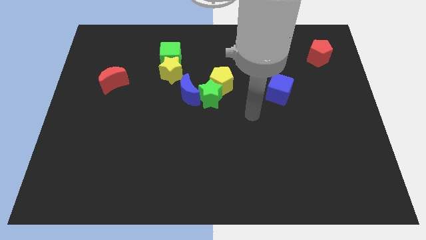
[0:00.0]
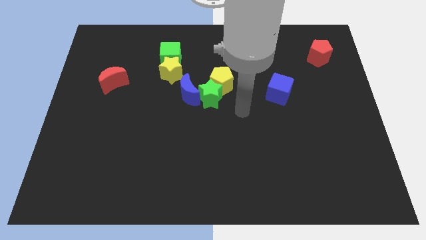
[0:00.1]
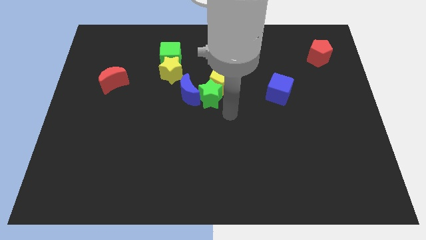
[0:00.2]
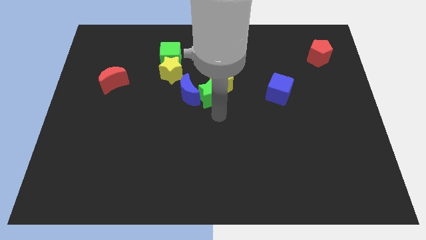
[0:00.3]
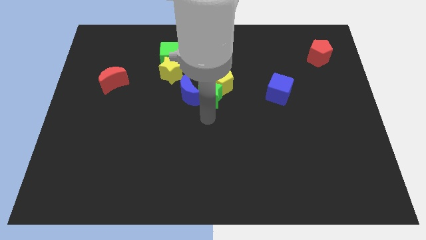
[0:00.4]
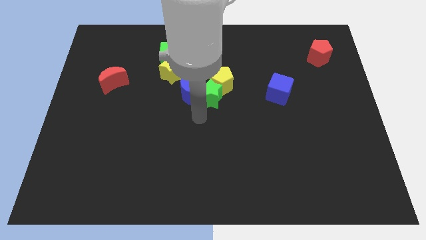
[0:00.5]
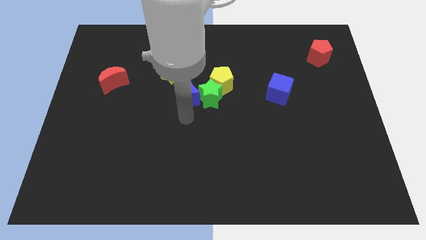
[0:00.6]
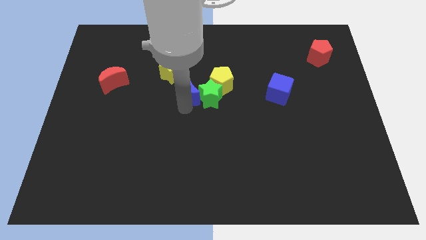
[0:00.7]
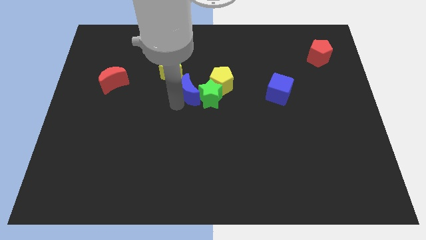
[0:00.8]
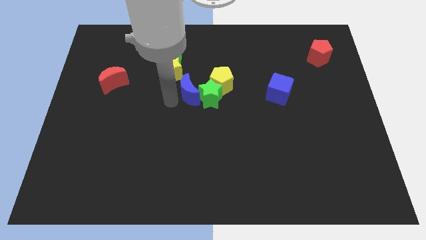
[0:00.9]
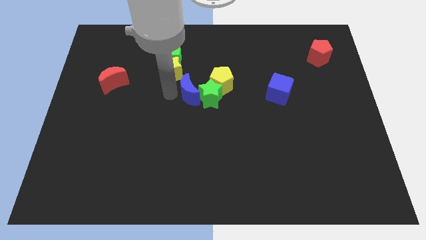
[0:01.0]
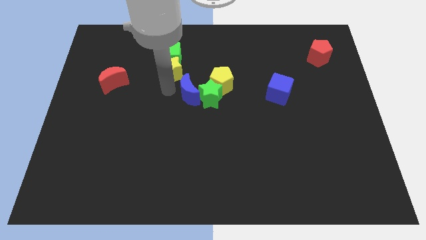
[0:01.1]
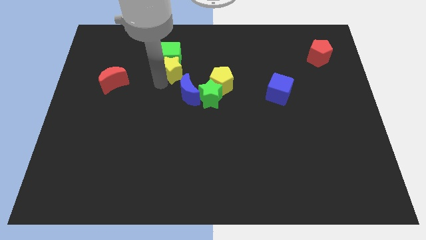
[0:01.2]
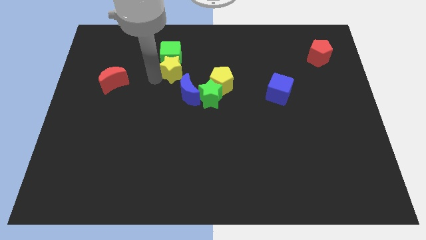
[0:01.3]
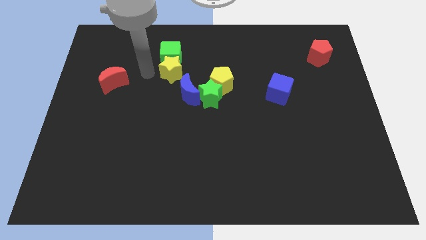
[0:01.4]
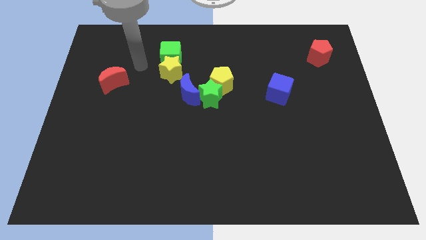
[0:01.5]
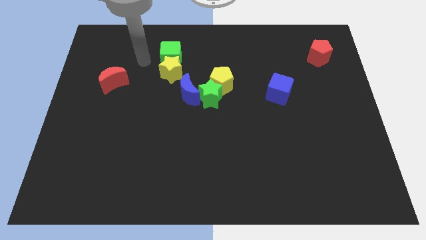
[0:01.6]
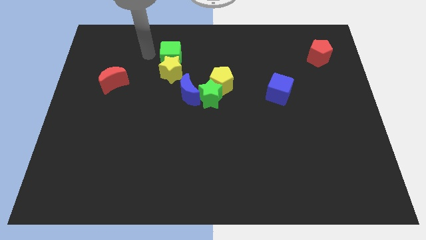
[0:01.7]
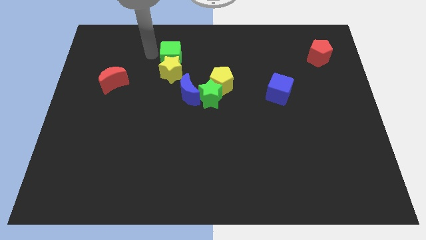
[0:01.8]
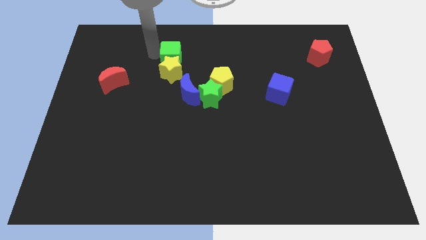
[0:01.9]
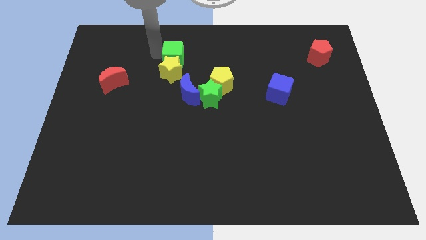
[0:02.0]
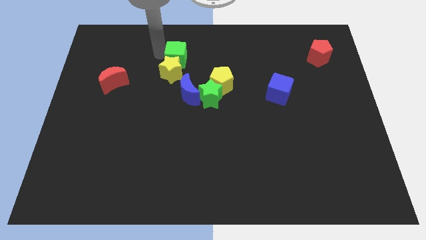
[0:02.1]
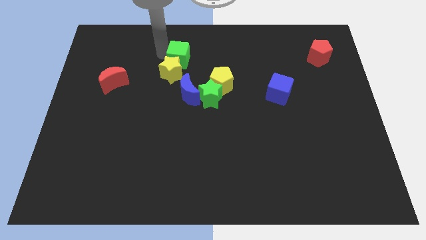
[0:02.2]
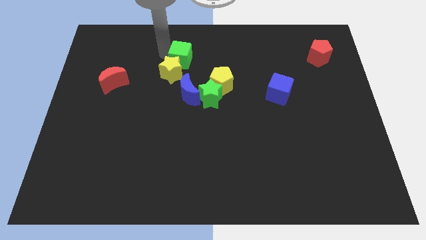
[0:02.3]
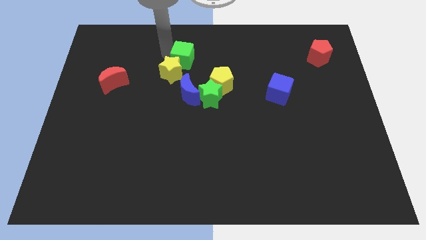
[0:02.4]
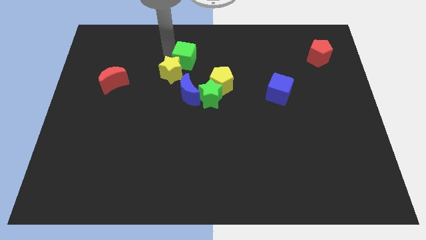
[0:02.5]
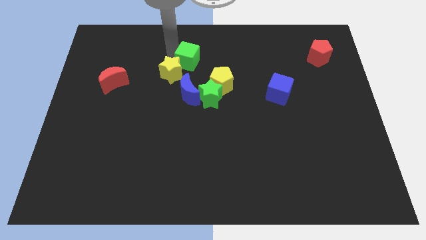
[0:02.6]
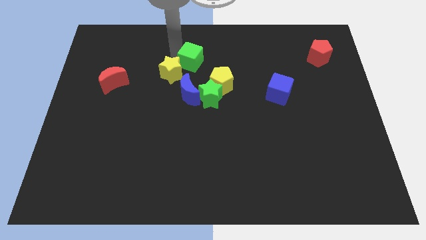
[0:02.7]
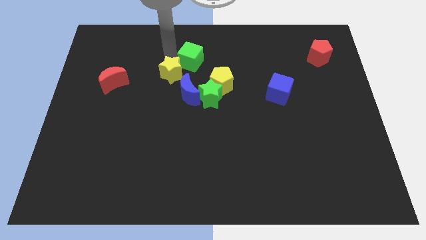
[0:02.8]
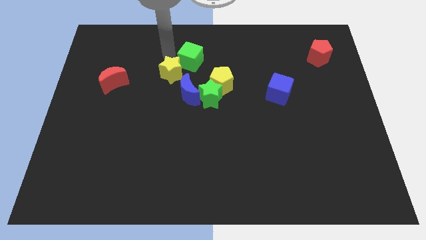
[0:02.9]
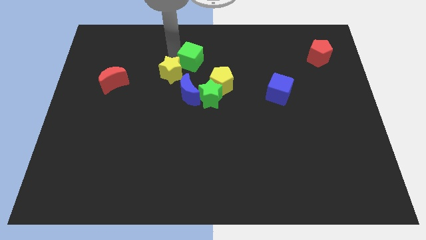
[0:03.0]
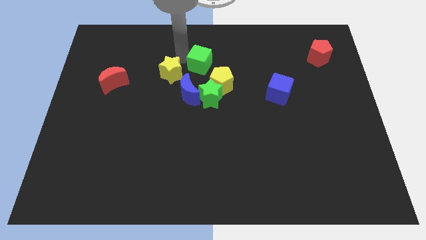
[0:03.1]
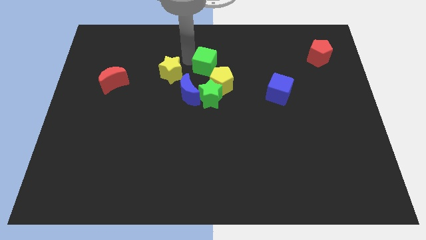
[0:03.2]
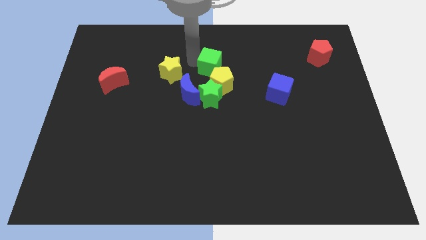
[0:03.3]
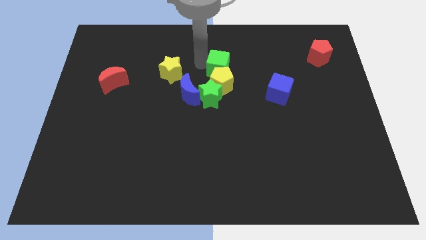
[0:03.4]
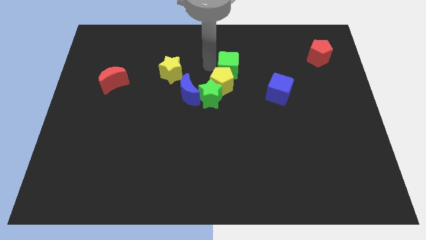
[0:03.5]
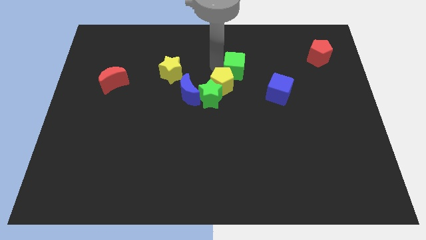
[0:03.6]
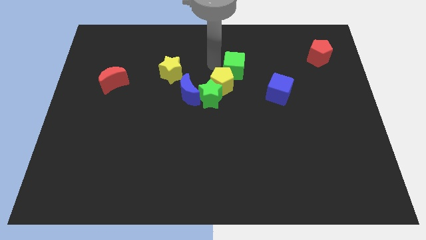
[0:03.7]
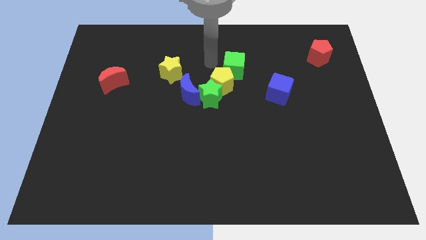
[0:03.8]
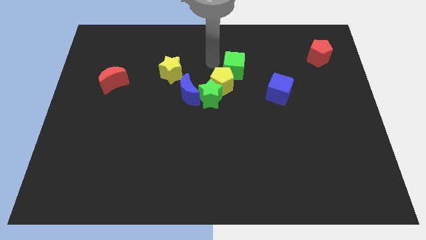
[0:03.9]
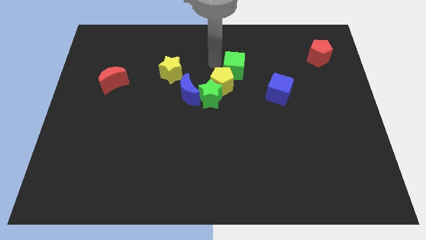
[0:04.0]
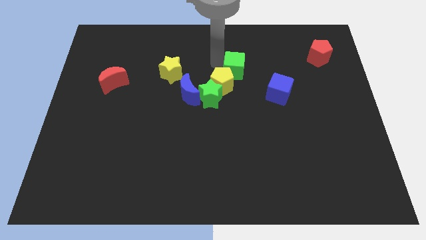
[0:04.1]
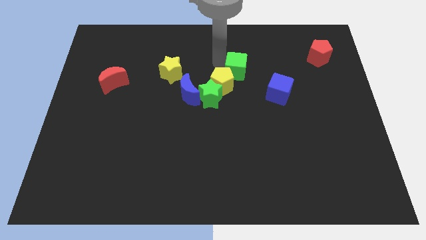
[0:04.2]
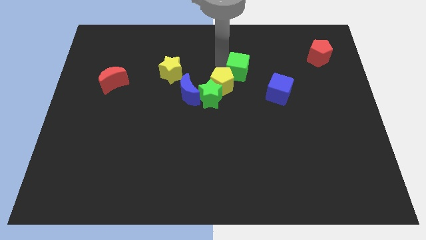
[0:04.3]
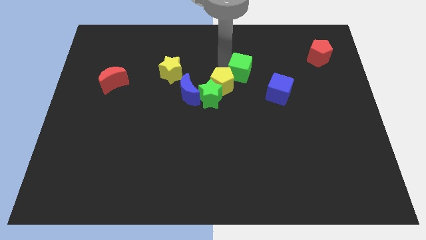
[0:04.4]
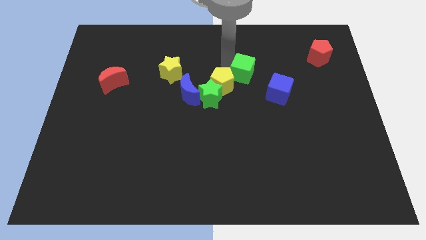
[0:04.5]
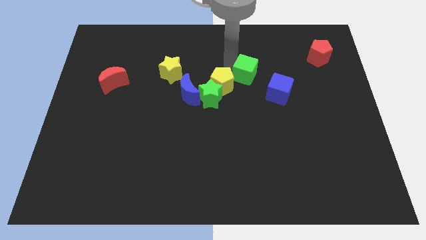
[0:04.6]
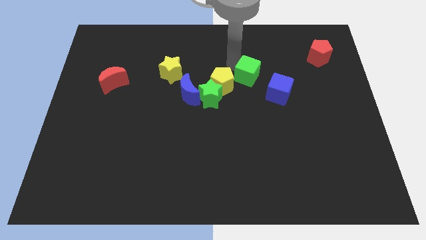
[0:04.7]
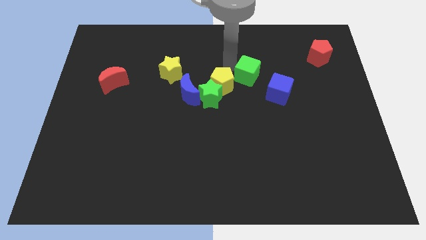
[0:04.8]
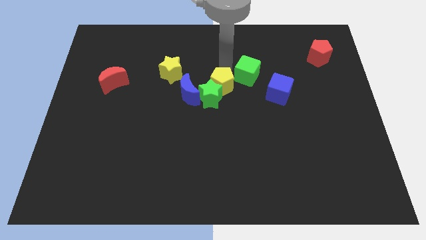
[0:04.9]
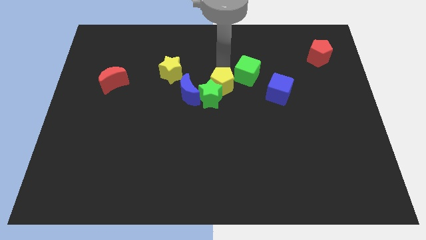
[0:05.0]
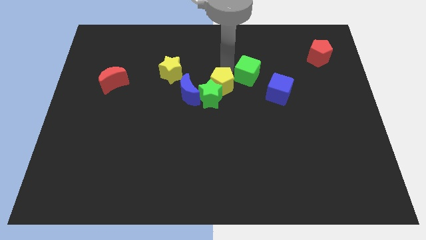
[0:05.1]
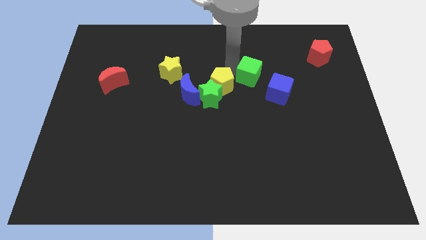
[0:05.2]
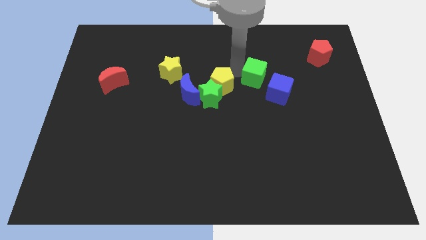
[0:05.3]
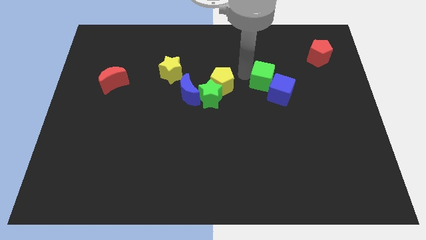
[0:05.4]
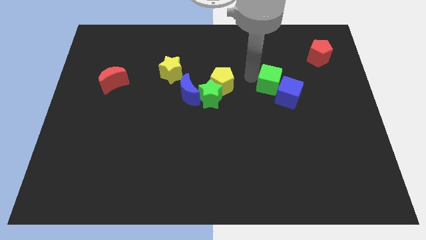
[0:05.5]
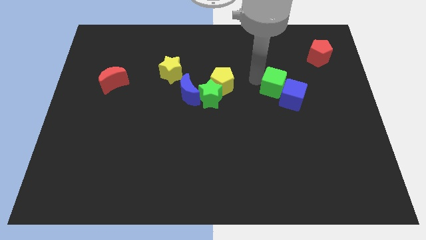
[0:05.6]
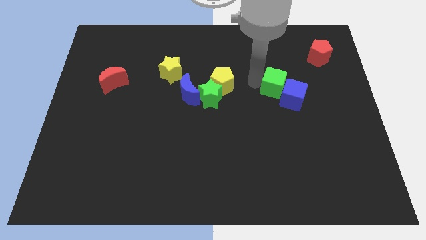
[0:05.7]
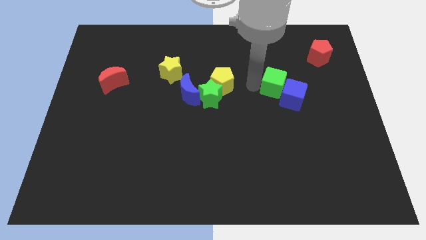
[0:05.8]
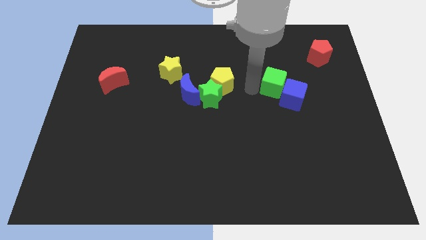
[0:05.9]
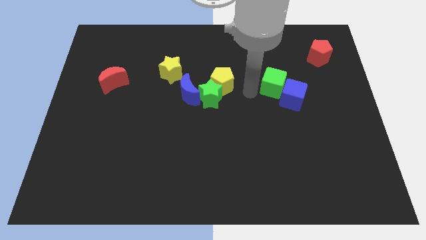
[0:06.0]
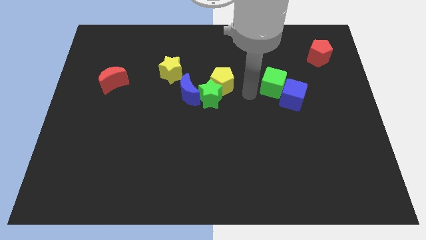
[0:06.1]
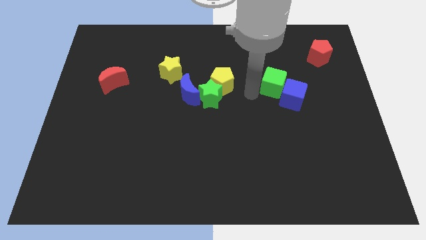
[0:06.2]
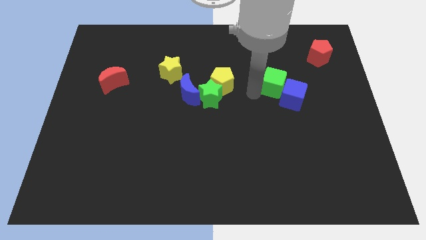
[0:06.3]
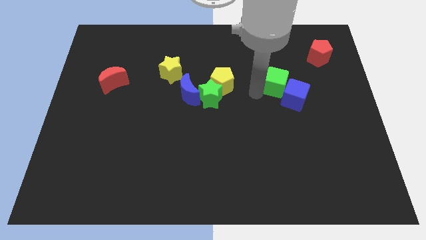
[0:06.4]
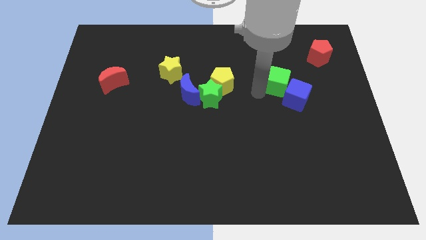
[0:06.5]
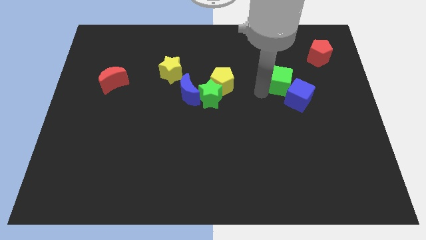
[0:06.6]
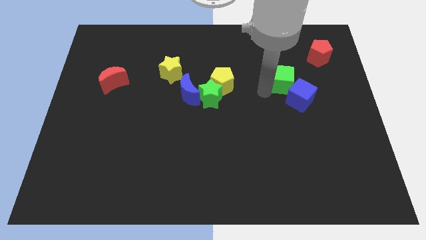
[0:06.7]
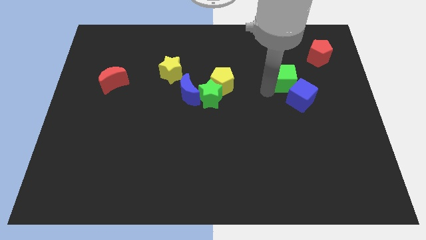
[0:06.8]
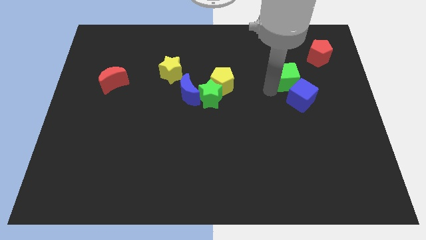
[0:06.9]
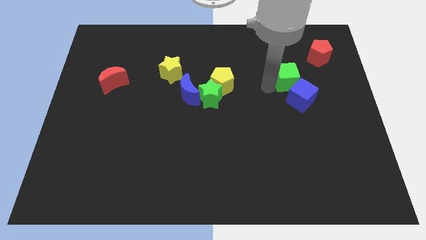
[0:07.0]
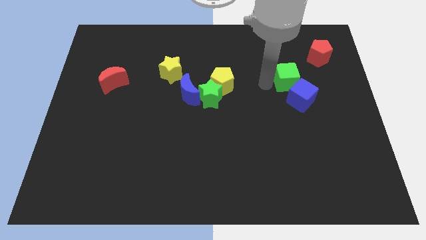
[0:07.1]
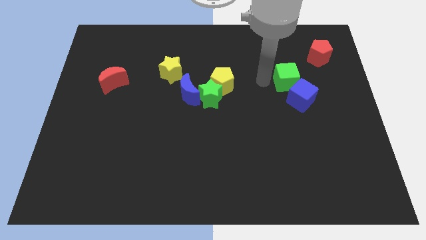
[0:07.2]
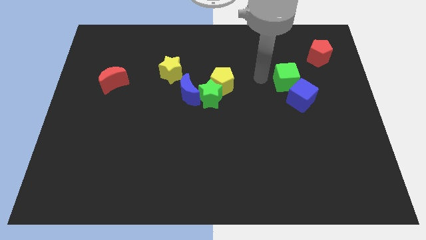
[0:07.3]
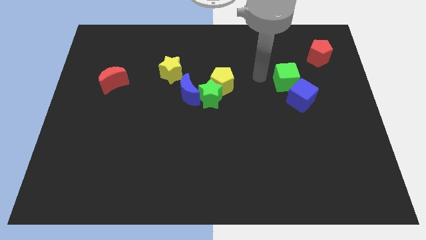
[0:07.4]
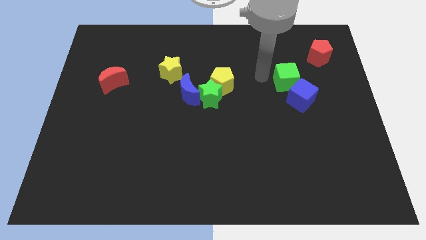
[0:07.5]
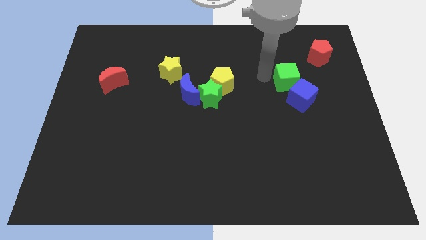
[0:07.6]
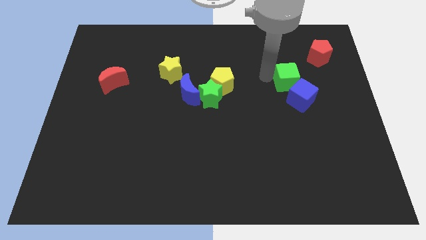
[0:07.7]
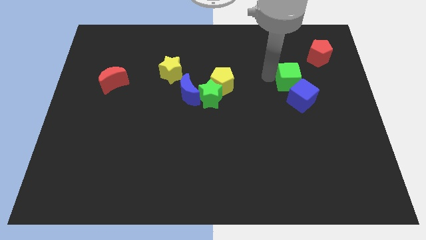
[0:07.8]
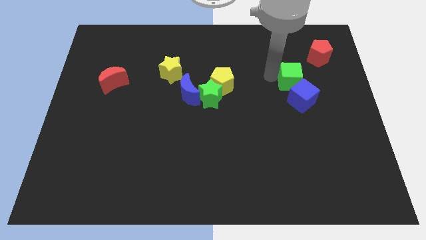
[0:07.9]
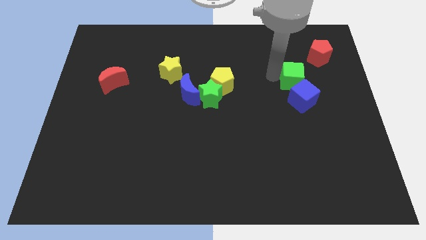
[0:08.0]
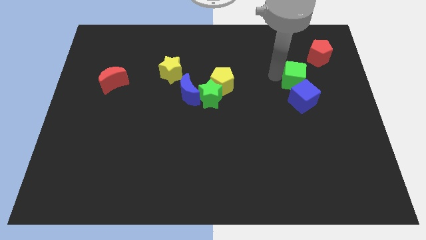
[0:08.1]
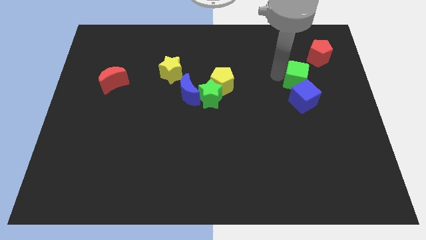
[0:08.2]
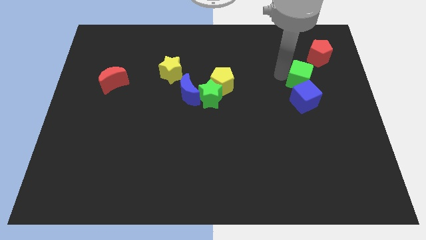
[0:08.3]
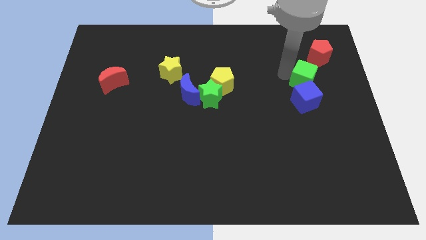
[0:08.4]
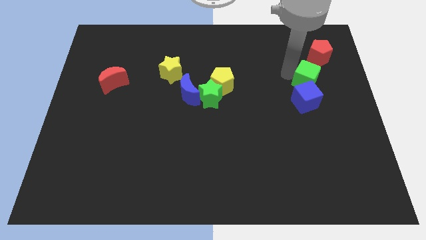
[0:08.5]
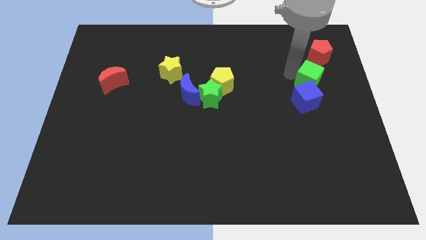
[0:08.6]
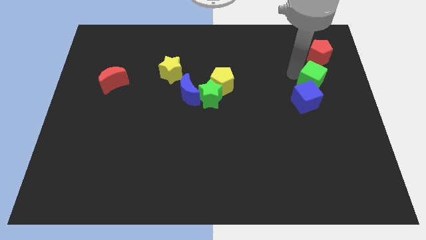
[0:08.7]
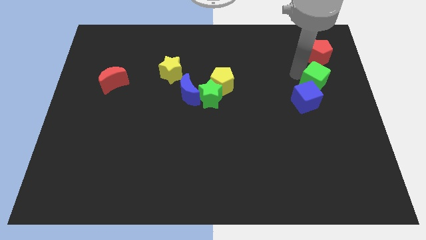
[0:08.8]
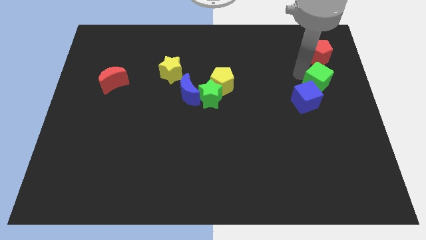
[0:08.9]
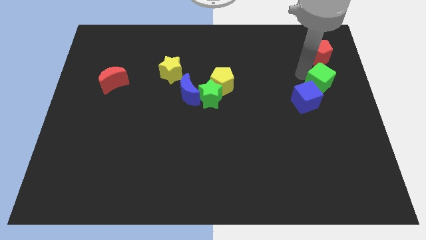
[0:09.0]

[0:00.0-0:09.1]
slide the green cube to the center right
